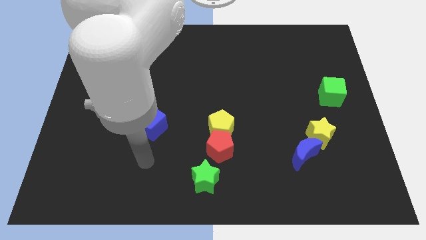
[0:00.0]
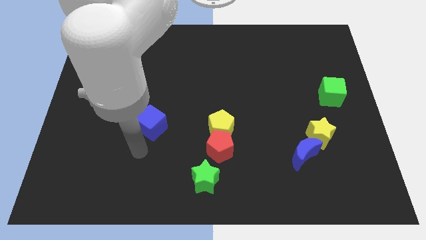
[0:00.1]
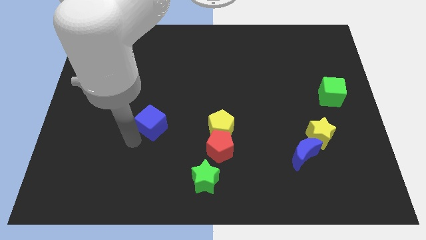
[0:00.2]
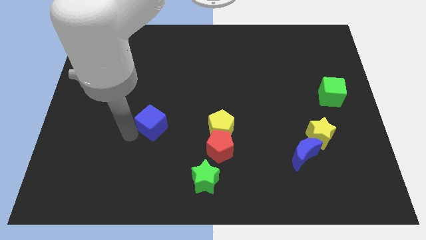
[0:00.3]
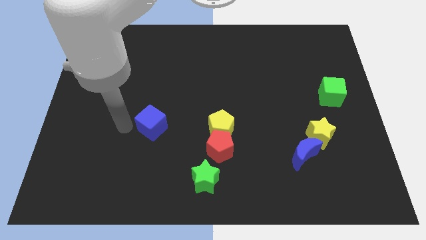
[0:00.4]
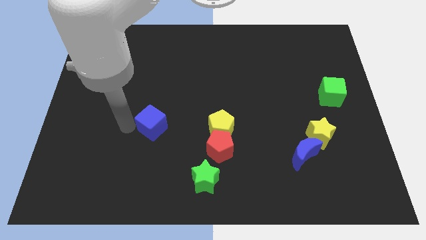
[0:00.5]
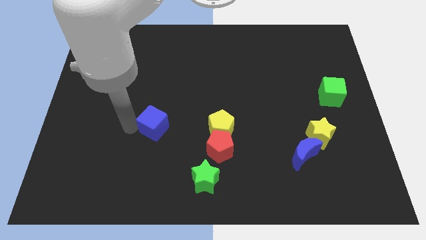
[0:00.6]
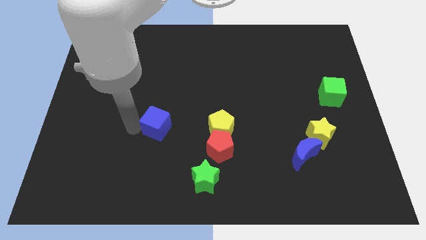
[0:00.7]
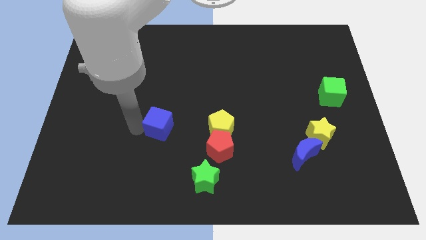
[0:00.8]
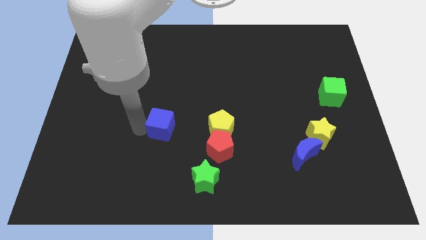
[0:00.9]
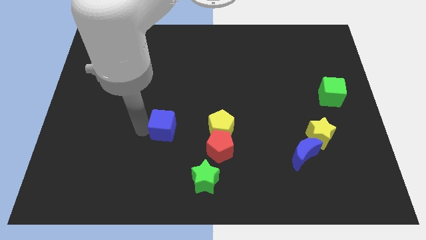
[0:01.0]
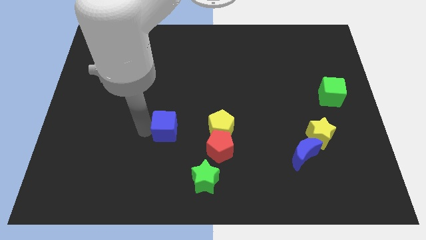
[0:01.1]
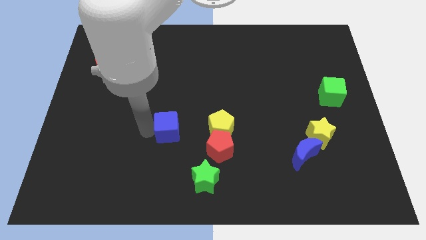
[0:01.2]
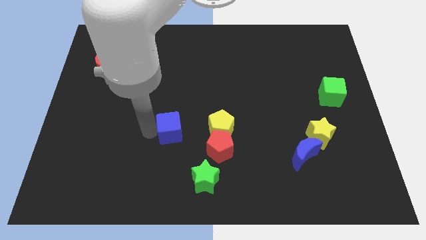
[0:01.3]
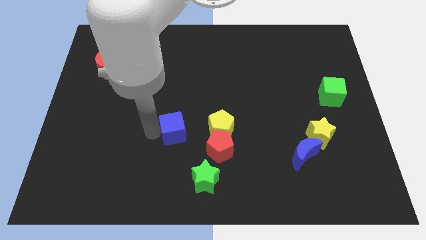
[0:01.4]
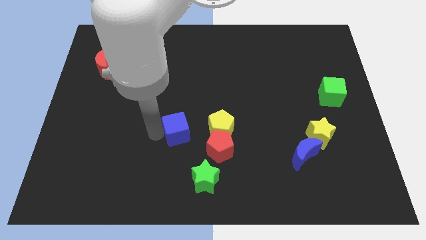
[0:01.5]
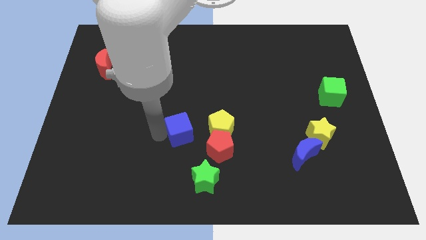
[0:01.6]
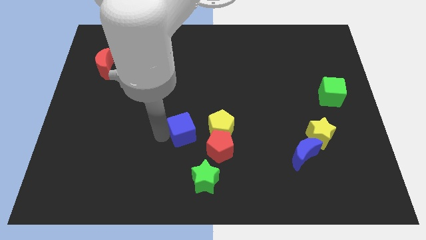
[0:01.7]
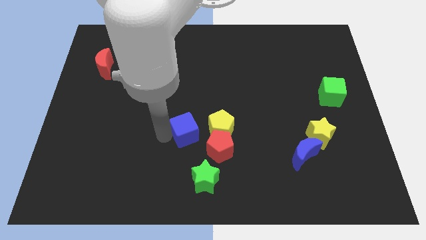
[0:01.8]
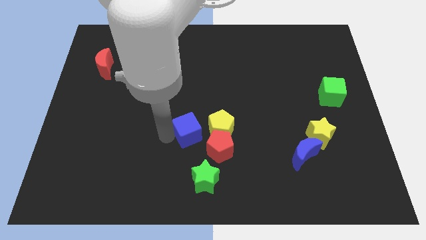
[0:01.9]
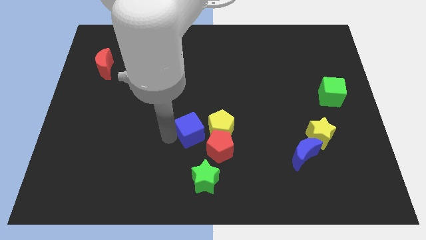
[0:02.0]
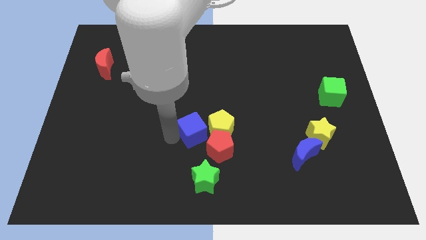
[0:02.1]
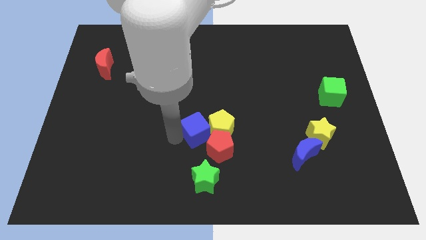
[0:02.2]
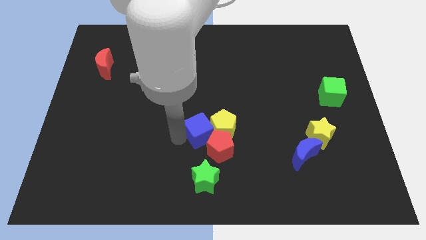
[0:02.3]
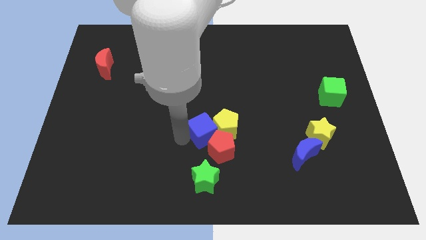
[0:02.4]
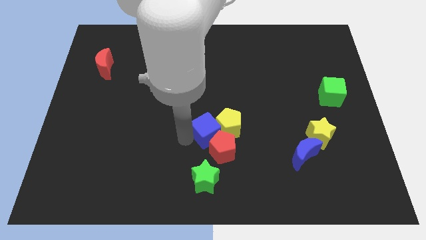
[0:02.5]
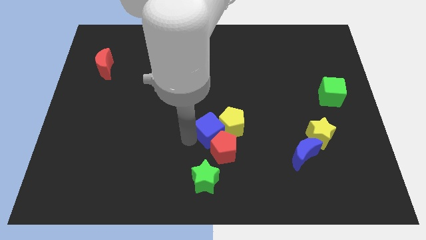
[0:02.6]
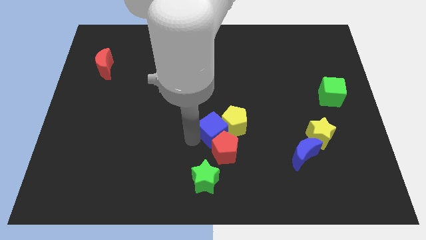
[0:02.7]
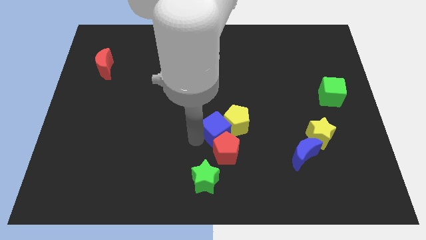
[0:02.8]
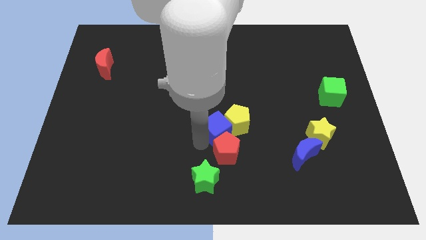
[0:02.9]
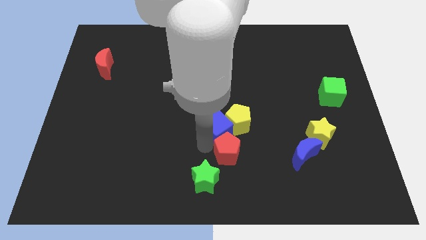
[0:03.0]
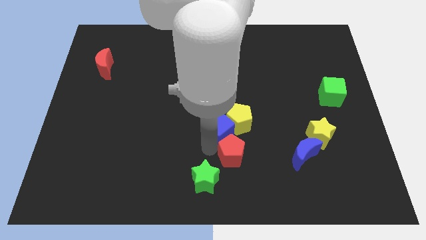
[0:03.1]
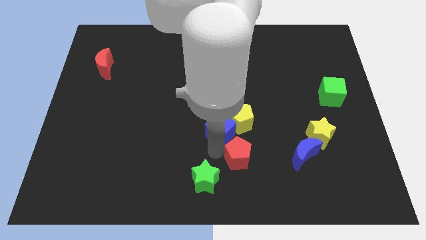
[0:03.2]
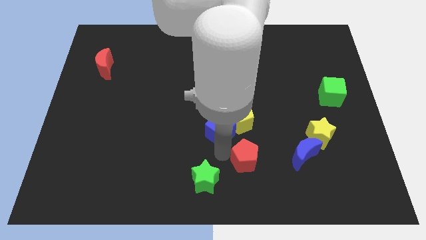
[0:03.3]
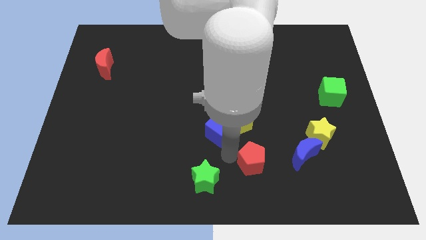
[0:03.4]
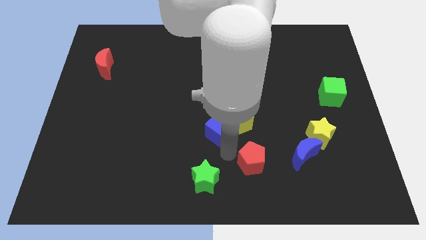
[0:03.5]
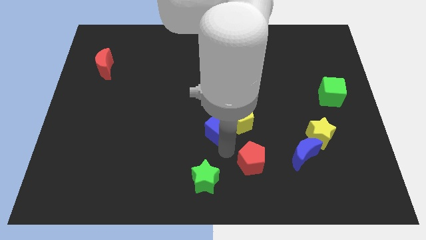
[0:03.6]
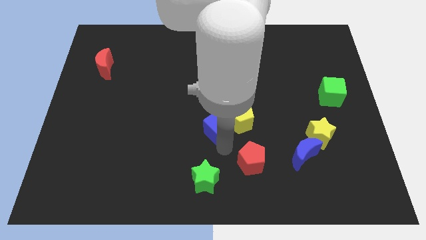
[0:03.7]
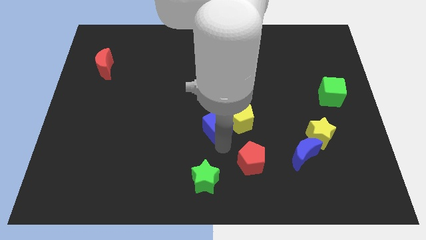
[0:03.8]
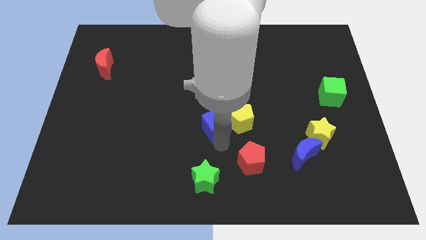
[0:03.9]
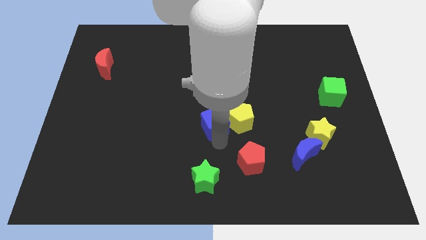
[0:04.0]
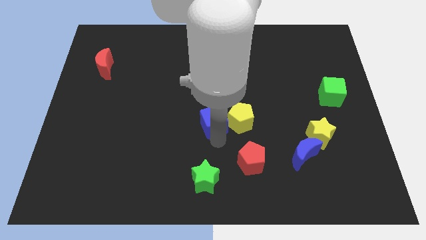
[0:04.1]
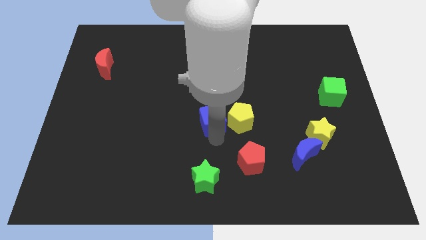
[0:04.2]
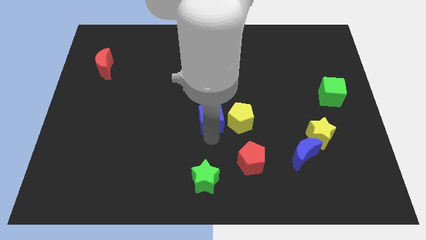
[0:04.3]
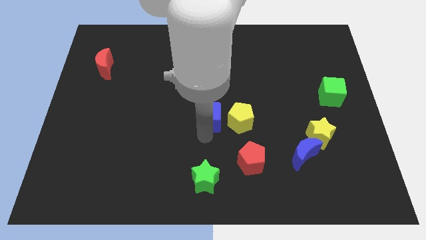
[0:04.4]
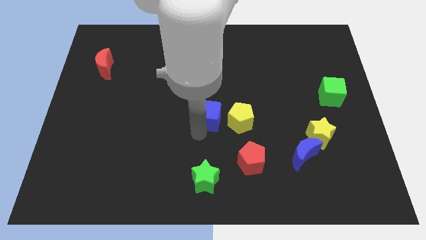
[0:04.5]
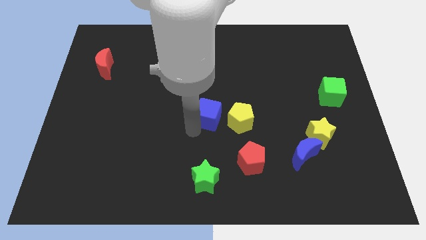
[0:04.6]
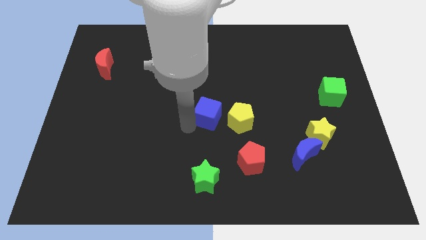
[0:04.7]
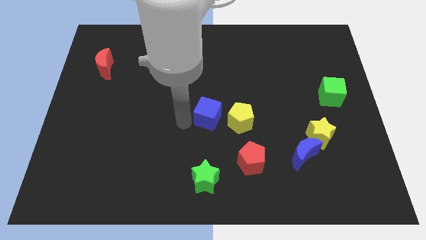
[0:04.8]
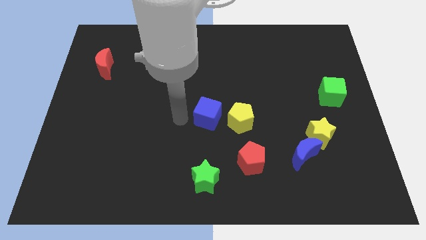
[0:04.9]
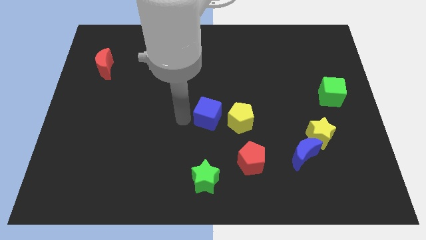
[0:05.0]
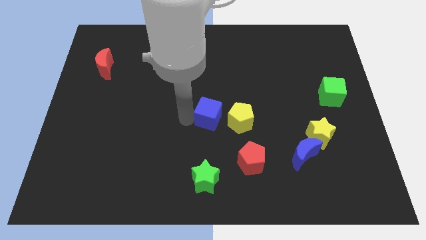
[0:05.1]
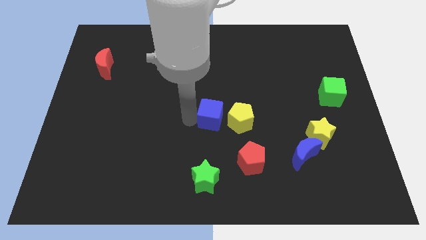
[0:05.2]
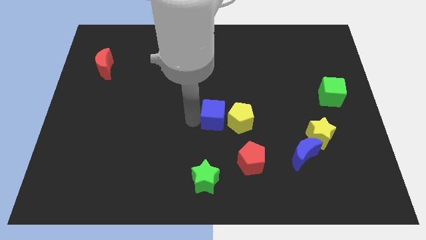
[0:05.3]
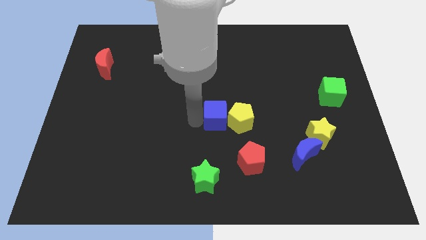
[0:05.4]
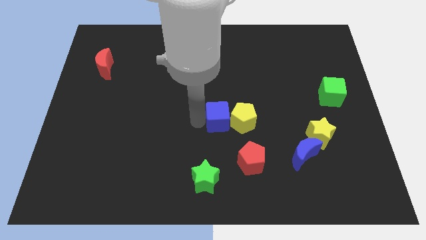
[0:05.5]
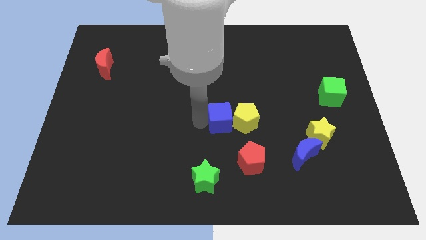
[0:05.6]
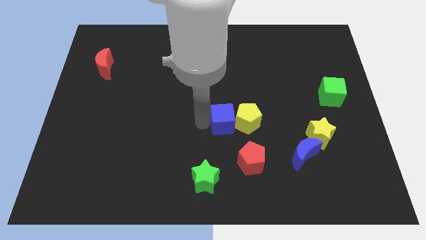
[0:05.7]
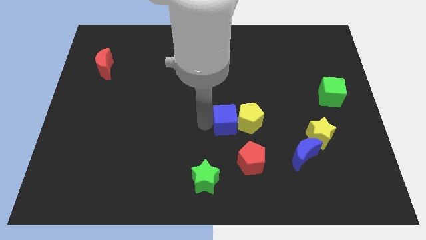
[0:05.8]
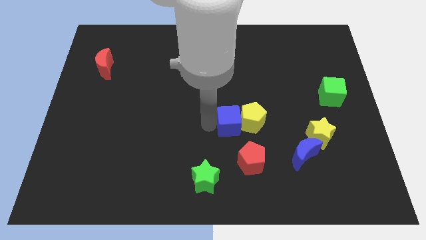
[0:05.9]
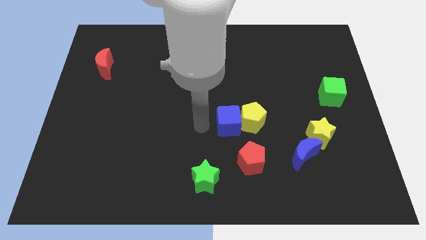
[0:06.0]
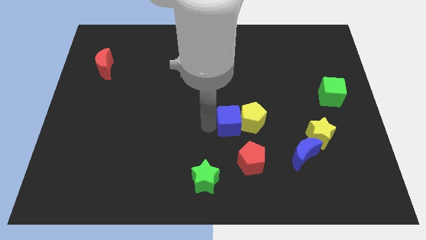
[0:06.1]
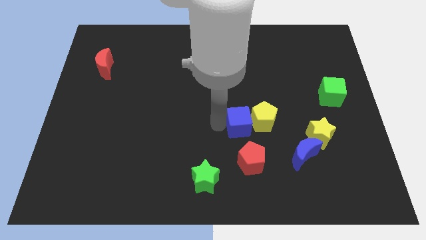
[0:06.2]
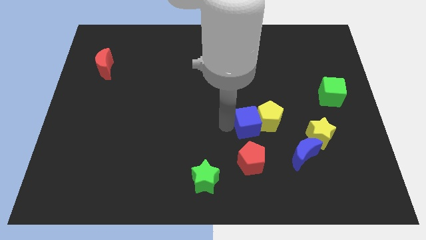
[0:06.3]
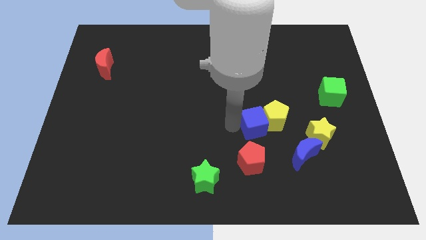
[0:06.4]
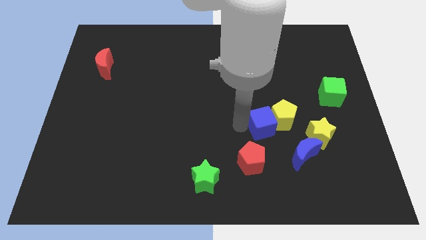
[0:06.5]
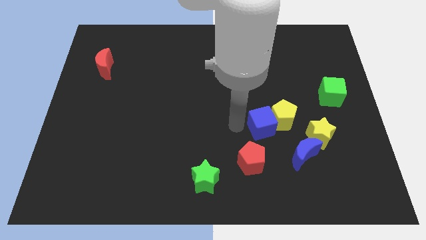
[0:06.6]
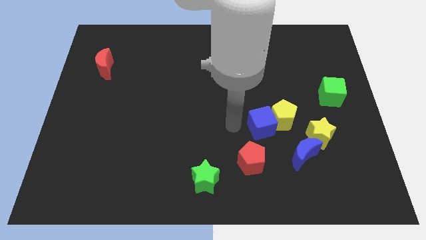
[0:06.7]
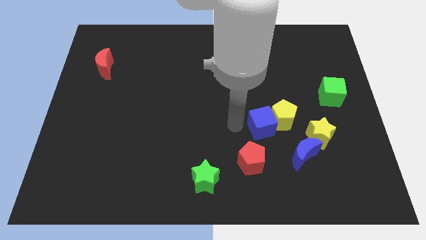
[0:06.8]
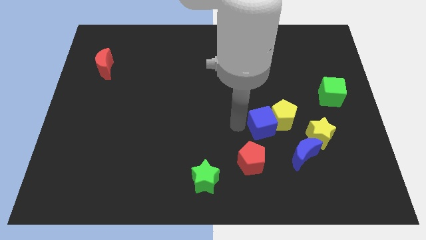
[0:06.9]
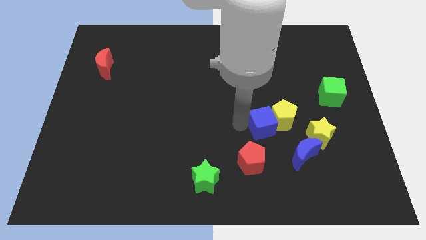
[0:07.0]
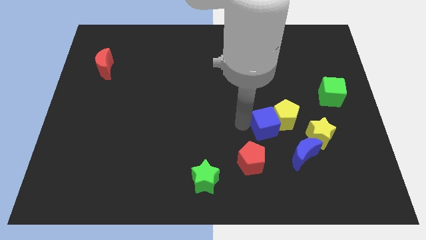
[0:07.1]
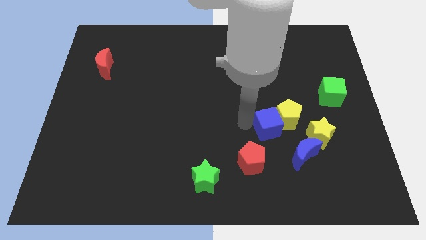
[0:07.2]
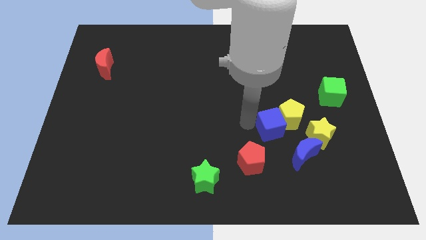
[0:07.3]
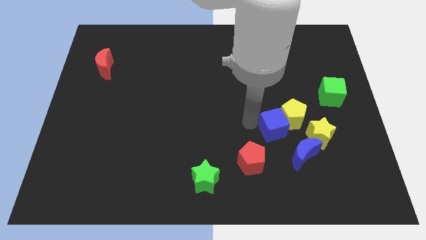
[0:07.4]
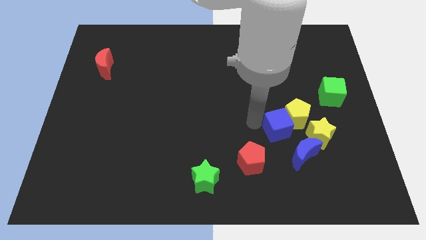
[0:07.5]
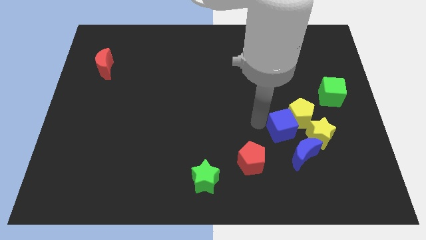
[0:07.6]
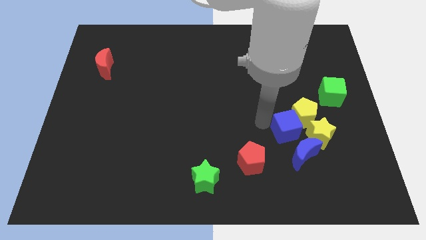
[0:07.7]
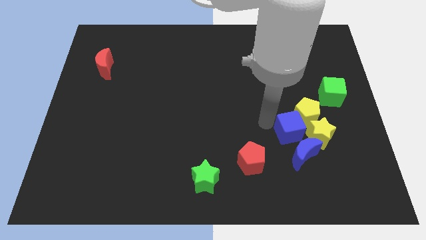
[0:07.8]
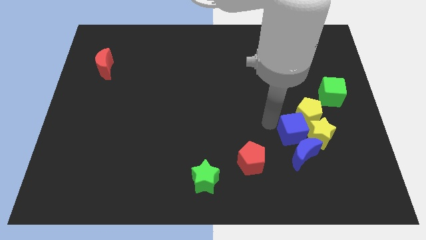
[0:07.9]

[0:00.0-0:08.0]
put the blue cube close to the yellow star
